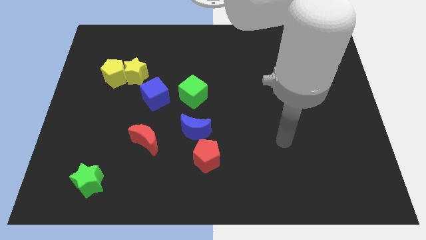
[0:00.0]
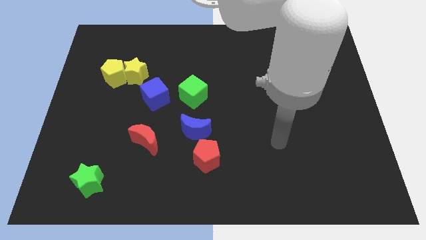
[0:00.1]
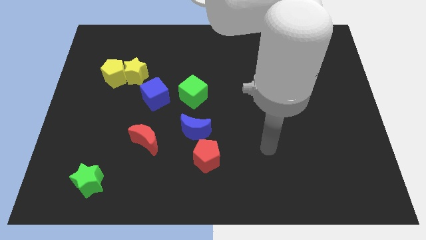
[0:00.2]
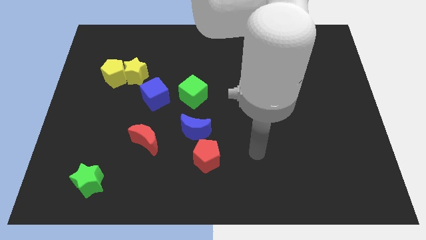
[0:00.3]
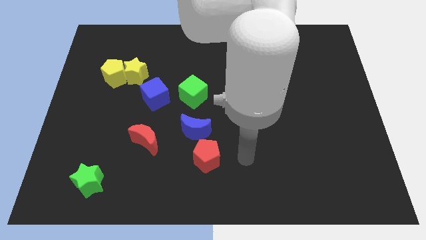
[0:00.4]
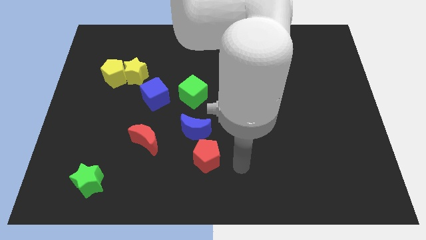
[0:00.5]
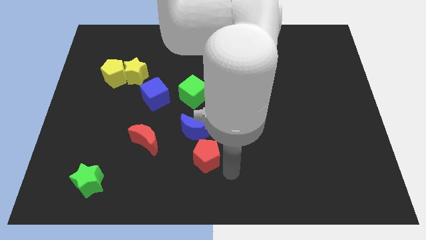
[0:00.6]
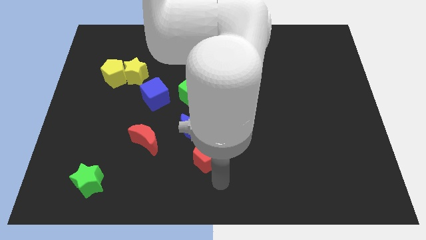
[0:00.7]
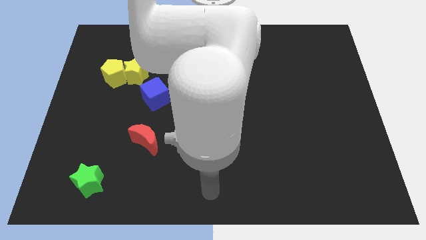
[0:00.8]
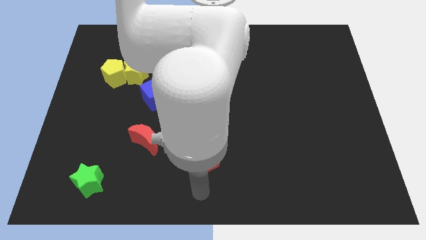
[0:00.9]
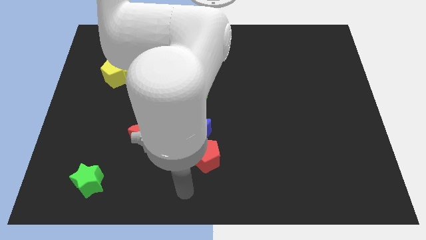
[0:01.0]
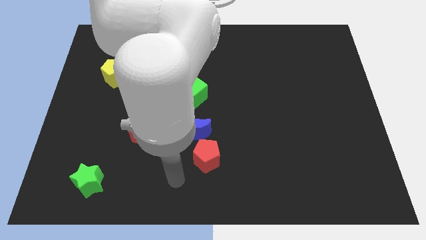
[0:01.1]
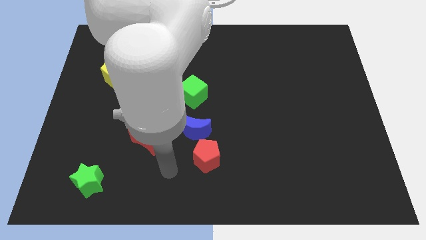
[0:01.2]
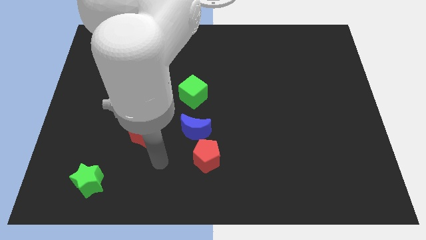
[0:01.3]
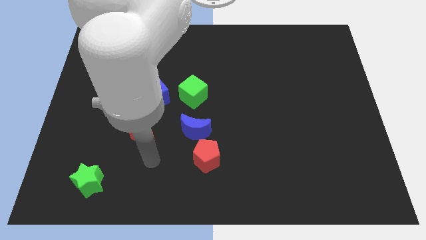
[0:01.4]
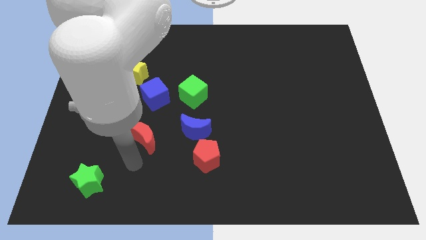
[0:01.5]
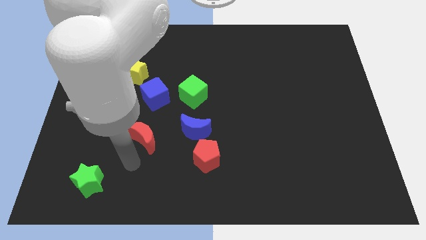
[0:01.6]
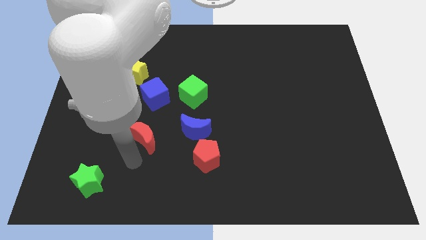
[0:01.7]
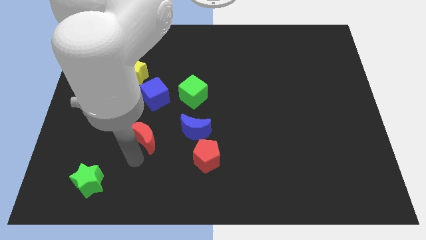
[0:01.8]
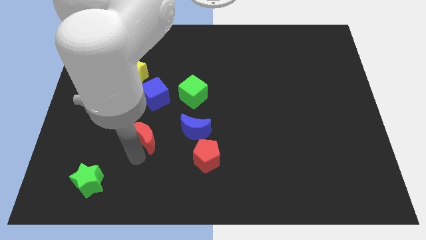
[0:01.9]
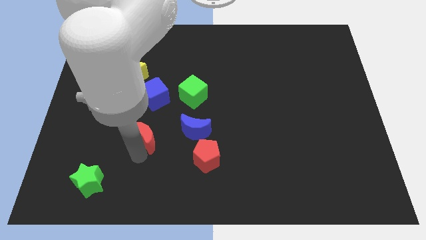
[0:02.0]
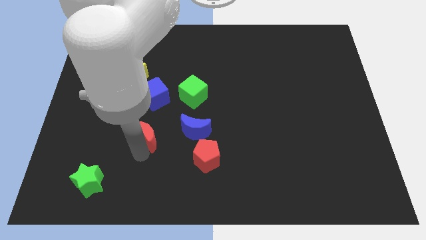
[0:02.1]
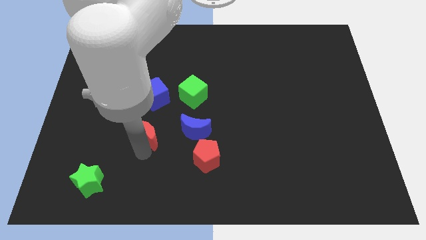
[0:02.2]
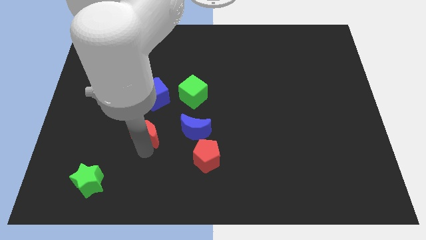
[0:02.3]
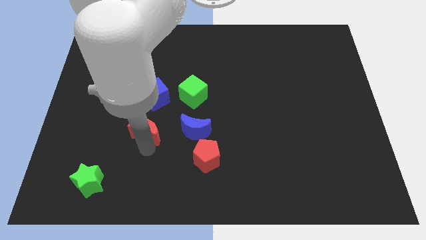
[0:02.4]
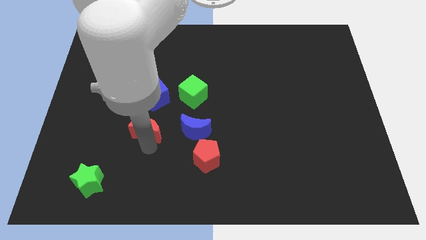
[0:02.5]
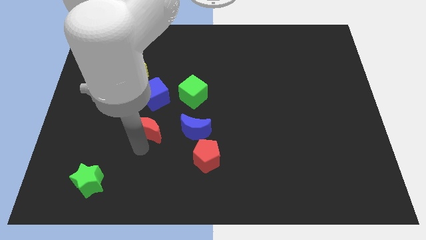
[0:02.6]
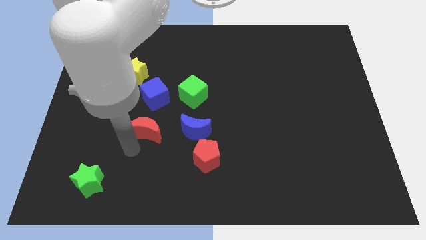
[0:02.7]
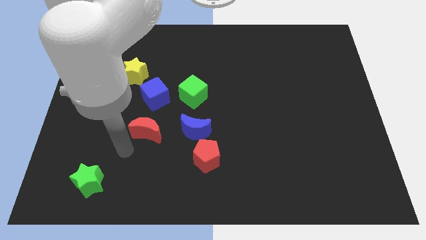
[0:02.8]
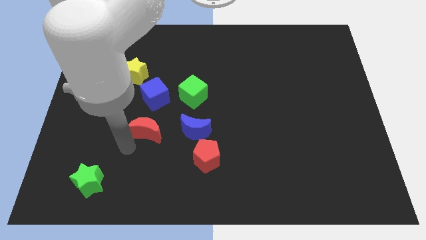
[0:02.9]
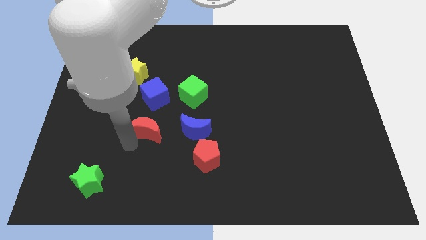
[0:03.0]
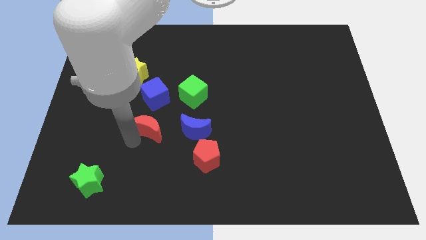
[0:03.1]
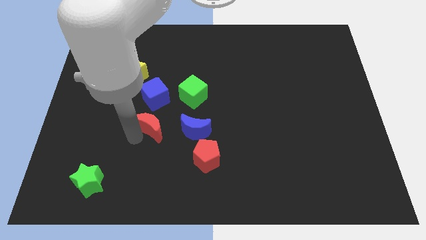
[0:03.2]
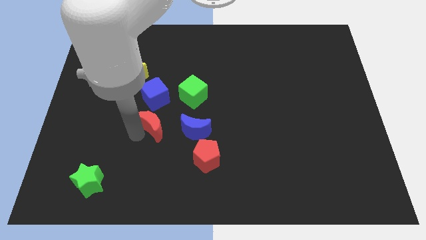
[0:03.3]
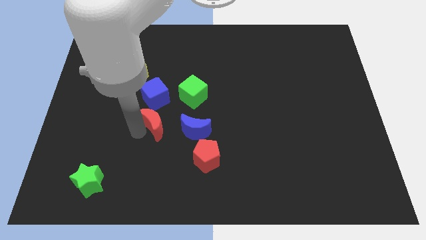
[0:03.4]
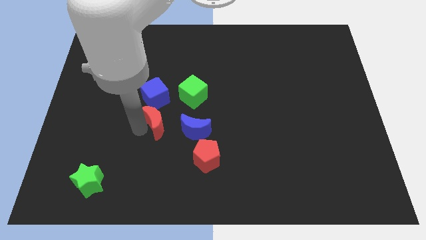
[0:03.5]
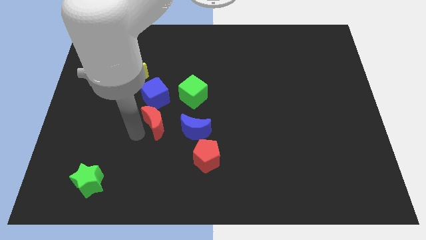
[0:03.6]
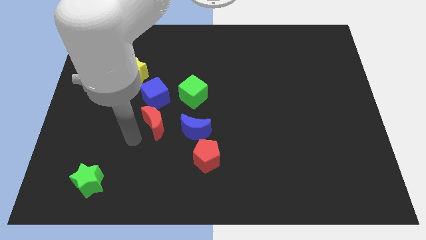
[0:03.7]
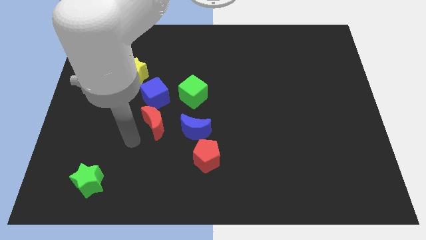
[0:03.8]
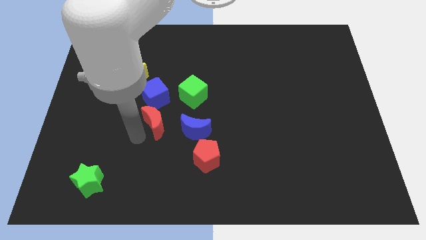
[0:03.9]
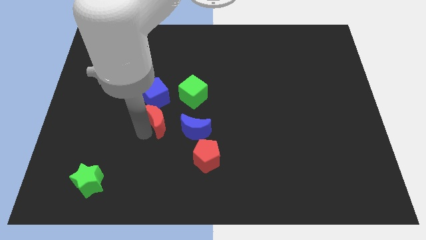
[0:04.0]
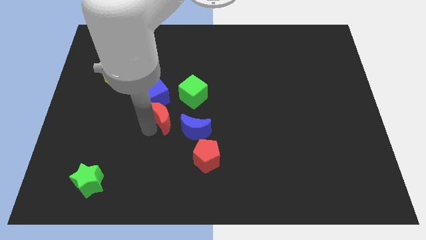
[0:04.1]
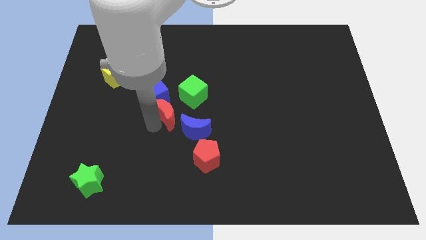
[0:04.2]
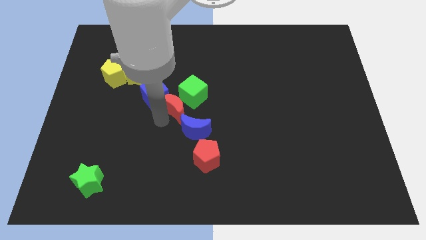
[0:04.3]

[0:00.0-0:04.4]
put the red moon towards the green cube

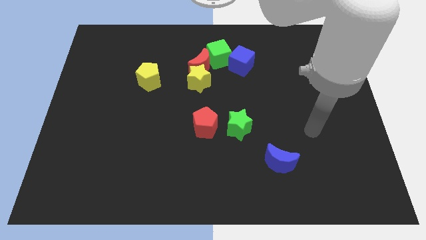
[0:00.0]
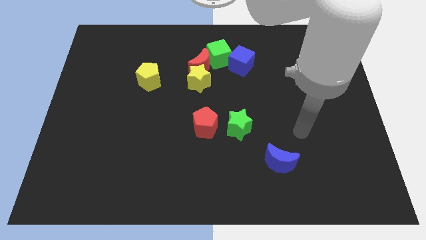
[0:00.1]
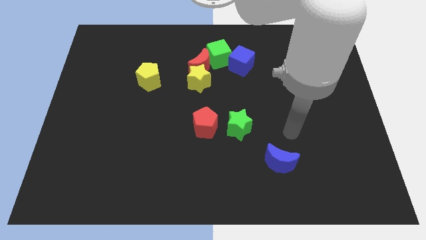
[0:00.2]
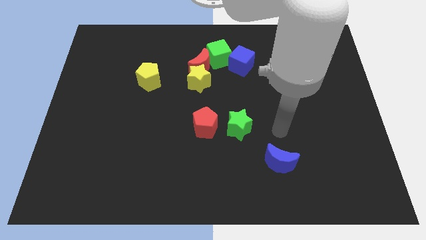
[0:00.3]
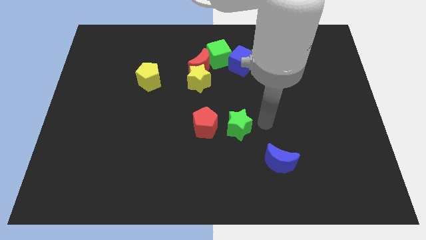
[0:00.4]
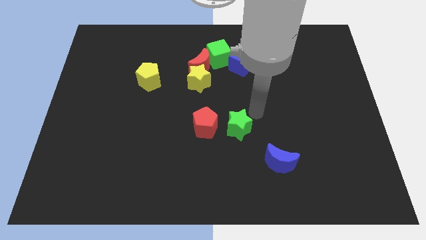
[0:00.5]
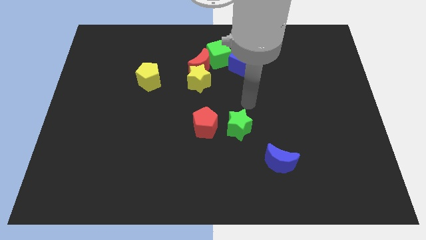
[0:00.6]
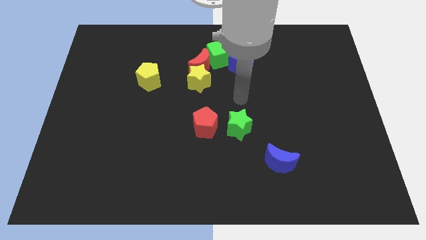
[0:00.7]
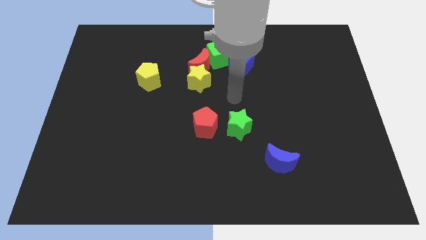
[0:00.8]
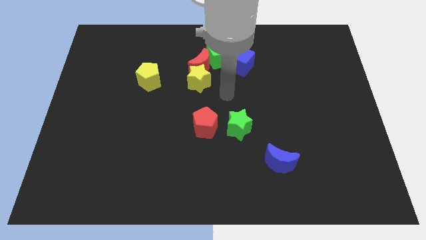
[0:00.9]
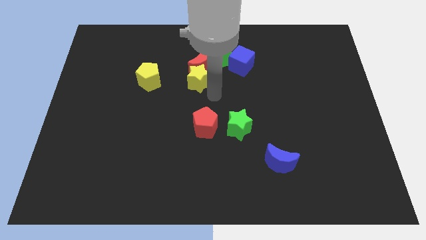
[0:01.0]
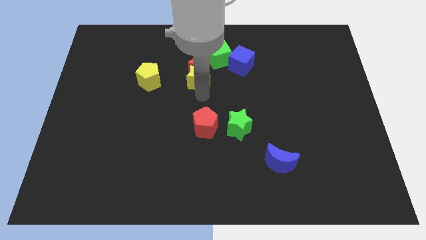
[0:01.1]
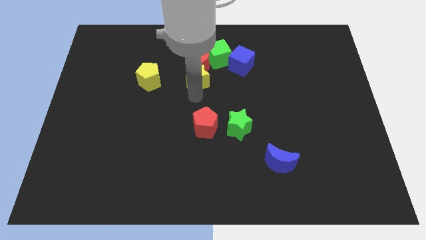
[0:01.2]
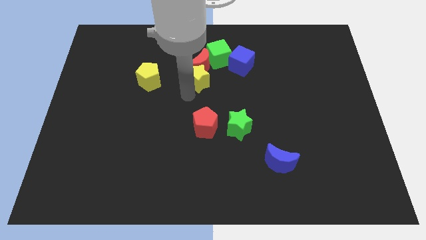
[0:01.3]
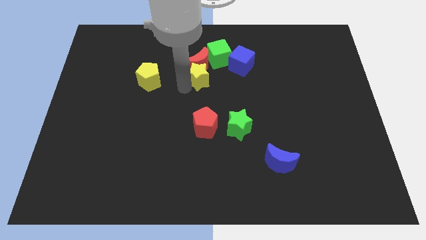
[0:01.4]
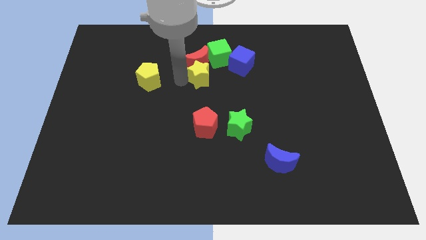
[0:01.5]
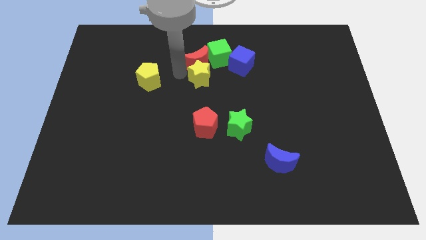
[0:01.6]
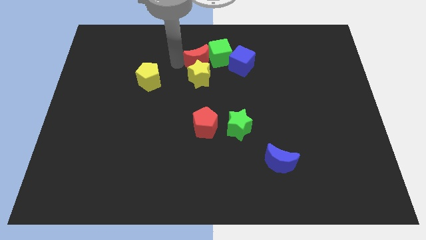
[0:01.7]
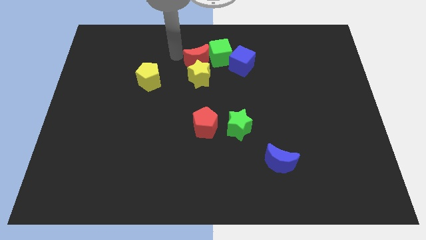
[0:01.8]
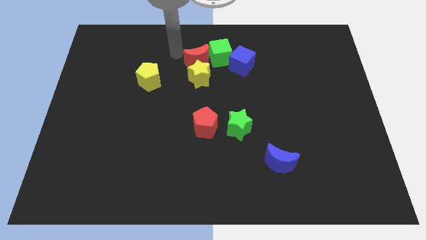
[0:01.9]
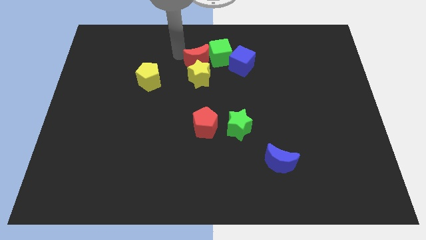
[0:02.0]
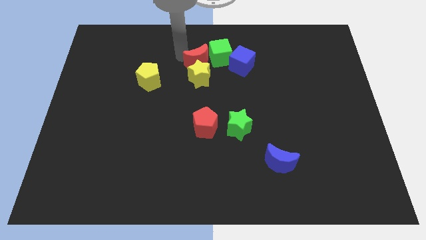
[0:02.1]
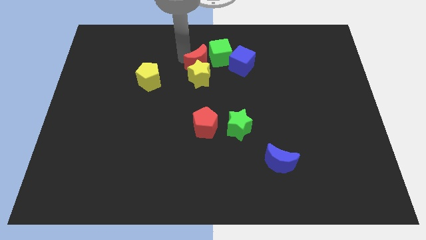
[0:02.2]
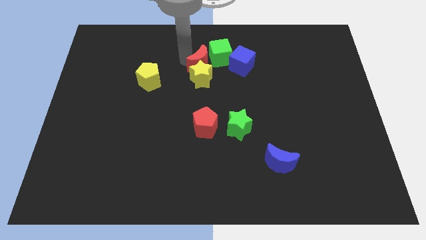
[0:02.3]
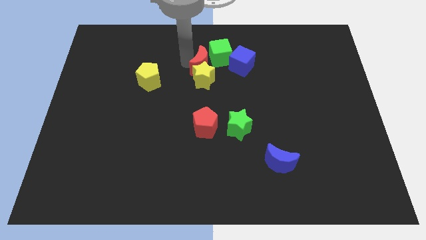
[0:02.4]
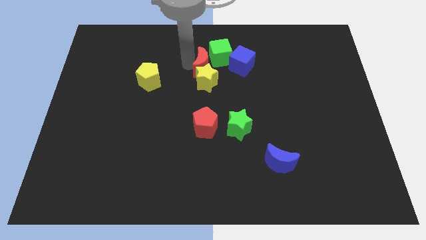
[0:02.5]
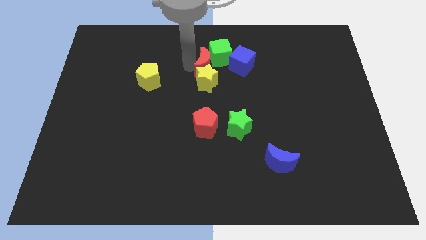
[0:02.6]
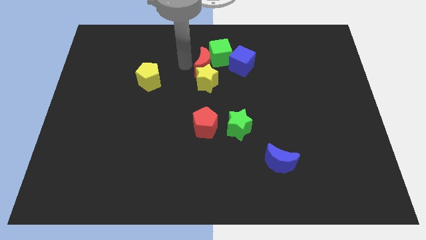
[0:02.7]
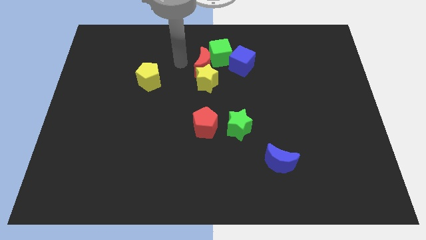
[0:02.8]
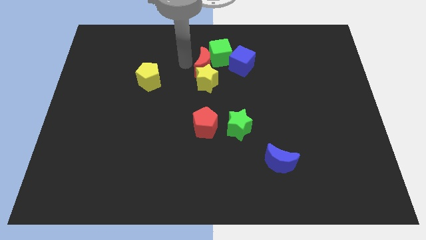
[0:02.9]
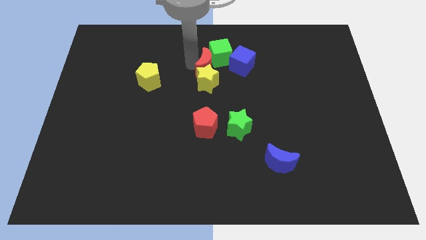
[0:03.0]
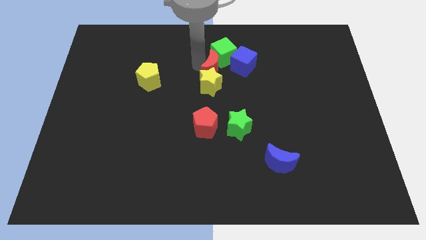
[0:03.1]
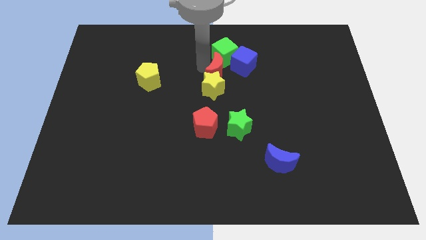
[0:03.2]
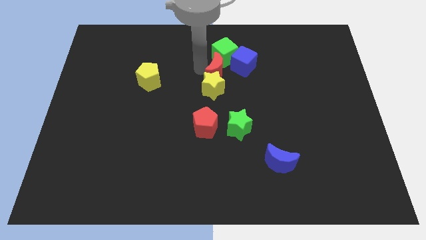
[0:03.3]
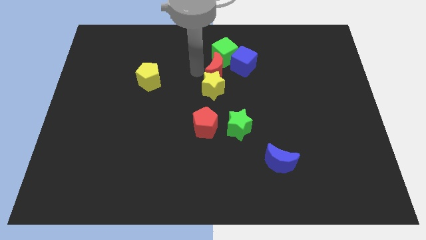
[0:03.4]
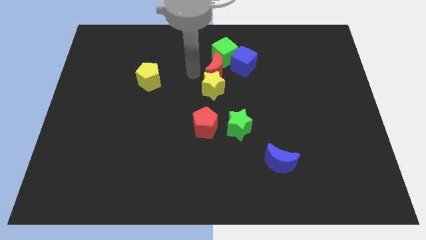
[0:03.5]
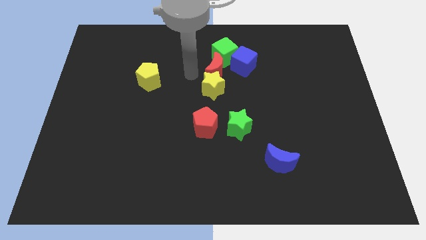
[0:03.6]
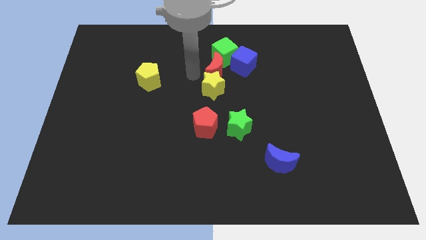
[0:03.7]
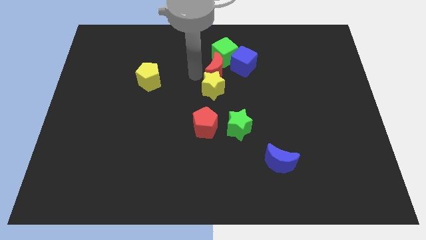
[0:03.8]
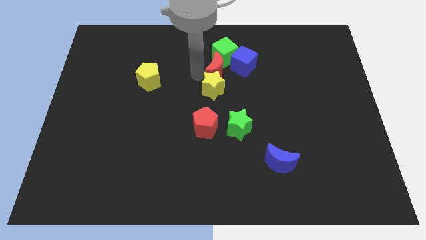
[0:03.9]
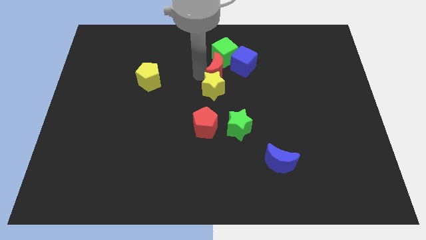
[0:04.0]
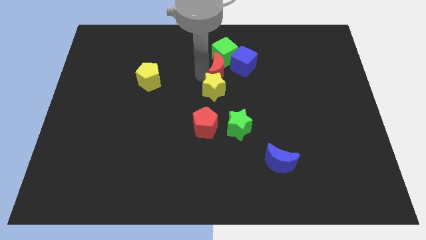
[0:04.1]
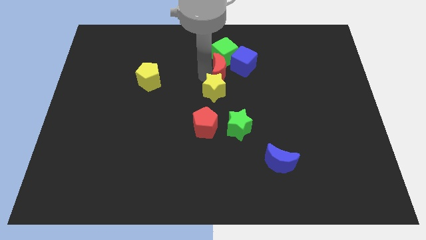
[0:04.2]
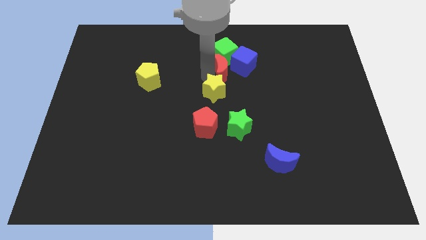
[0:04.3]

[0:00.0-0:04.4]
slide the red moon to the blue cube
